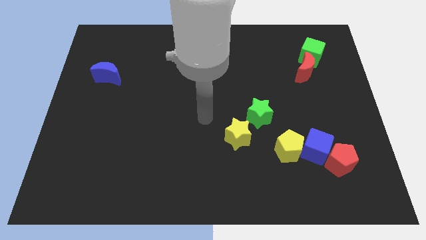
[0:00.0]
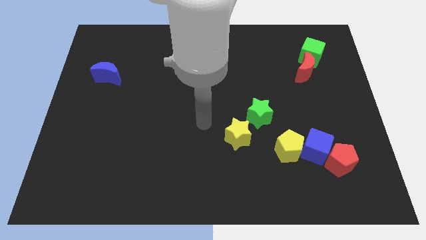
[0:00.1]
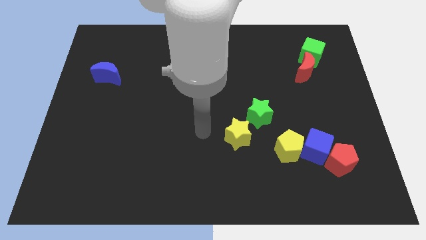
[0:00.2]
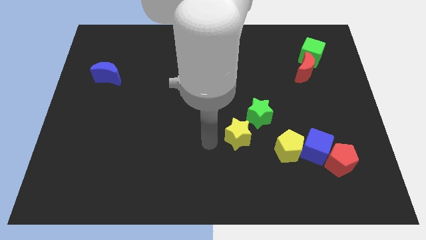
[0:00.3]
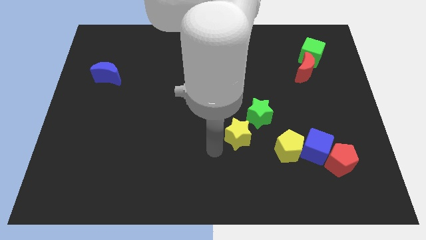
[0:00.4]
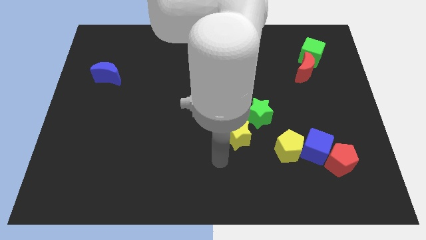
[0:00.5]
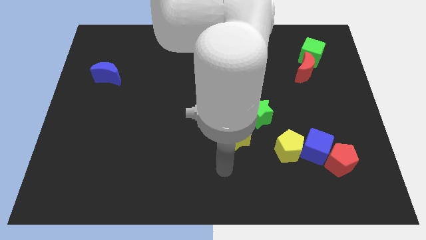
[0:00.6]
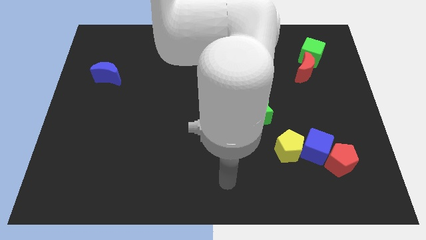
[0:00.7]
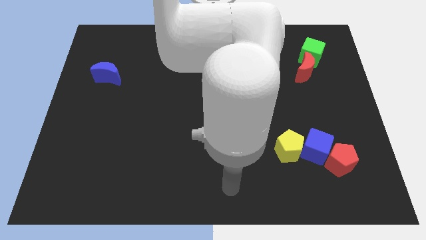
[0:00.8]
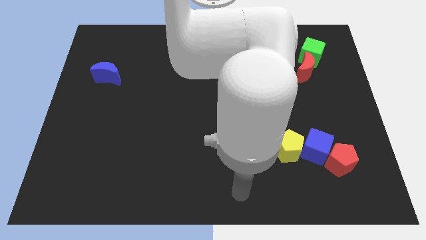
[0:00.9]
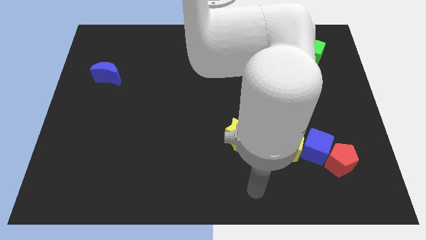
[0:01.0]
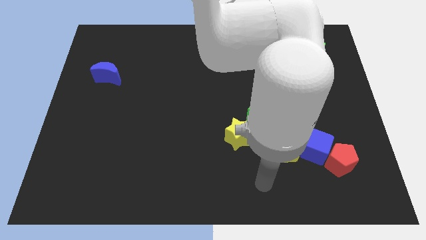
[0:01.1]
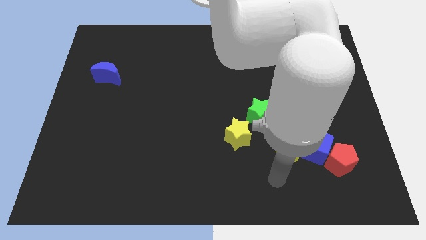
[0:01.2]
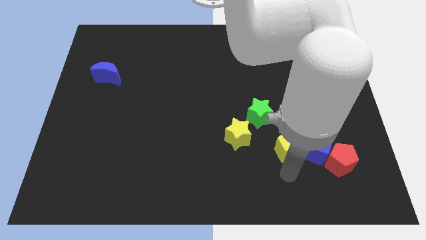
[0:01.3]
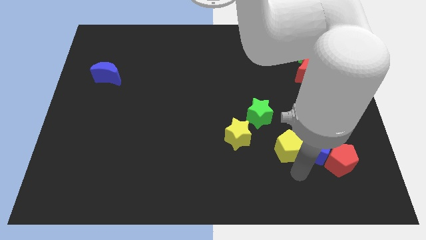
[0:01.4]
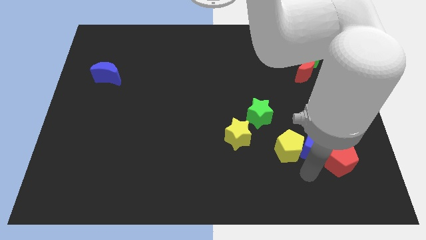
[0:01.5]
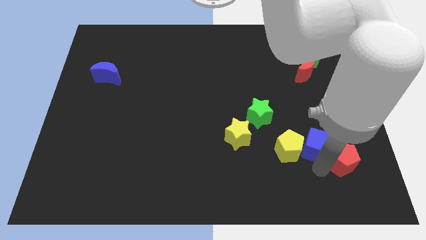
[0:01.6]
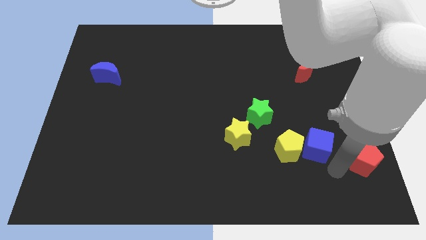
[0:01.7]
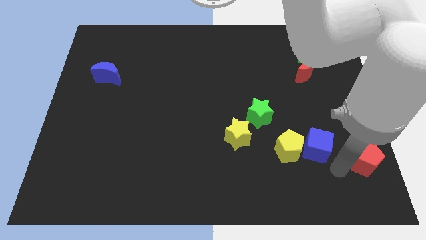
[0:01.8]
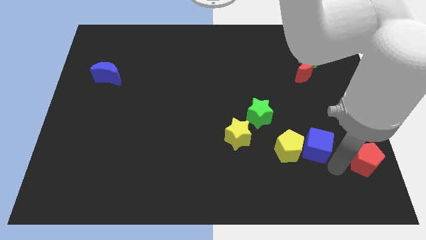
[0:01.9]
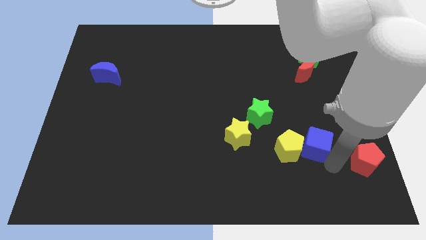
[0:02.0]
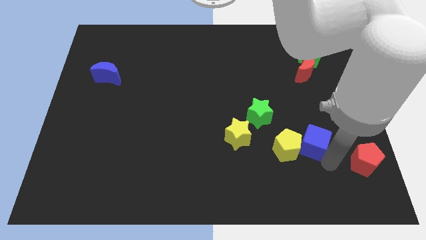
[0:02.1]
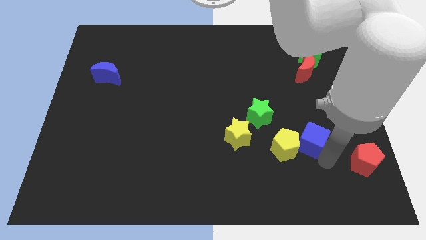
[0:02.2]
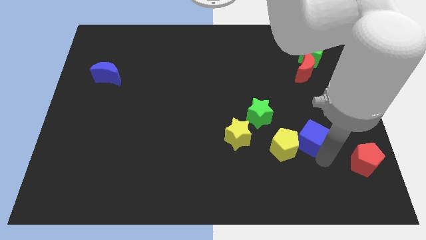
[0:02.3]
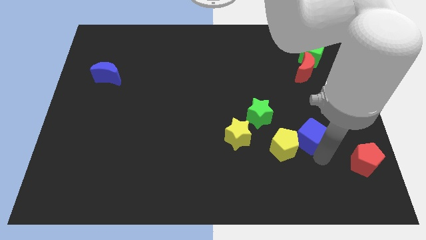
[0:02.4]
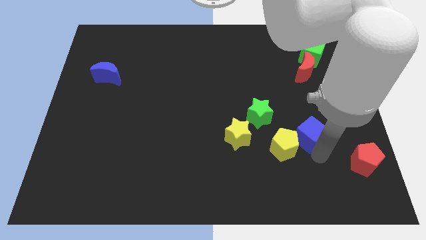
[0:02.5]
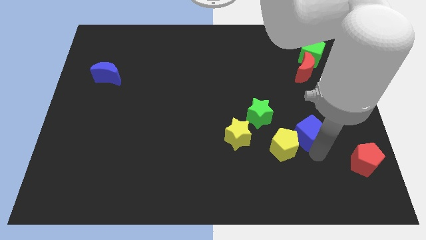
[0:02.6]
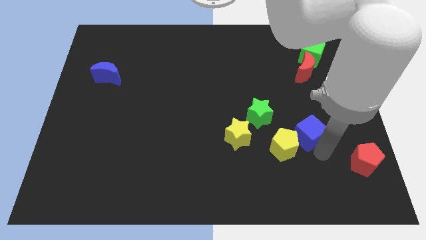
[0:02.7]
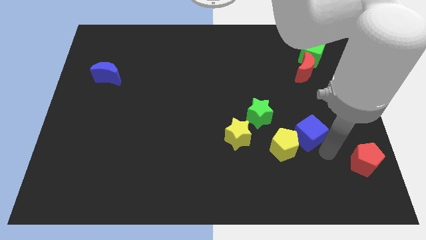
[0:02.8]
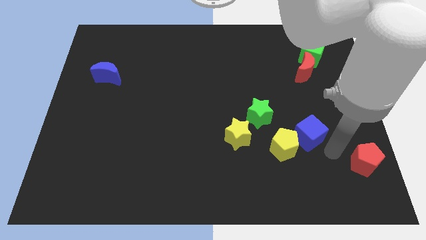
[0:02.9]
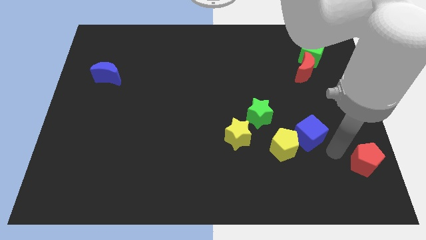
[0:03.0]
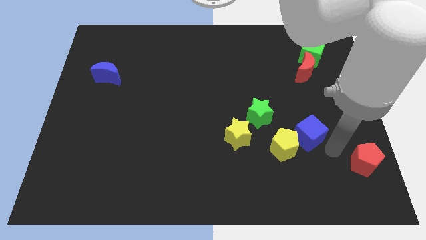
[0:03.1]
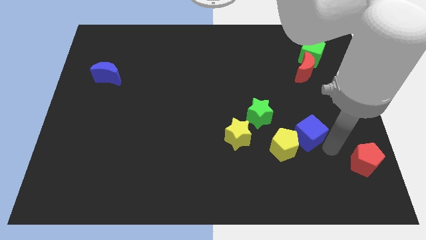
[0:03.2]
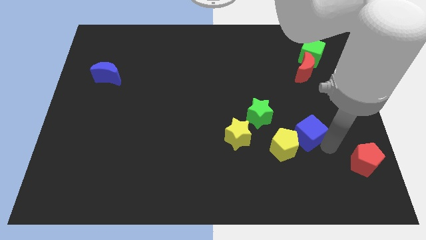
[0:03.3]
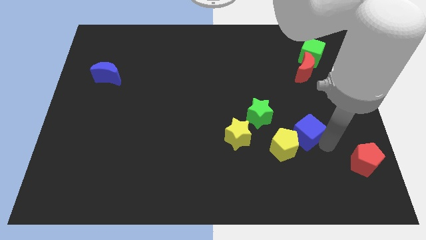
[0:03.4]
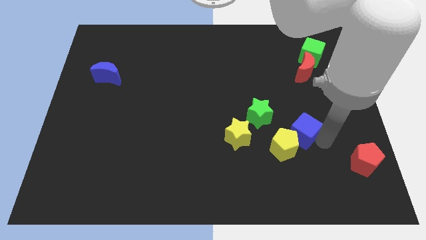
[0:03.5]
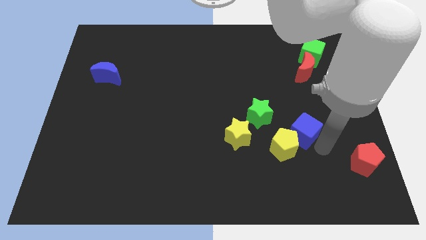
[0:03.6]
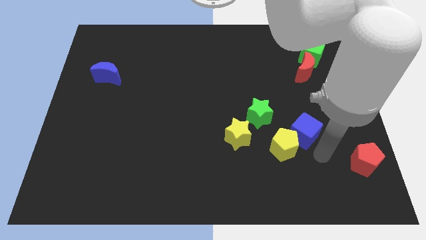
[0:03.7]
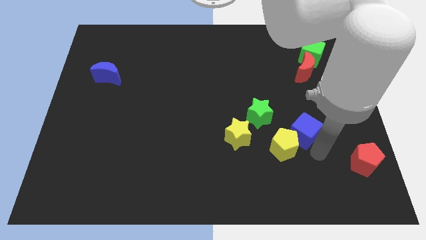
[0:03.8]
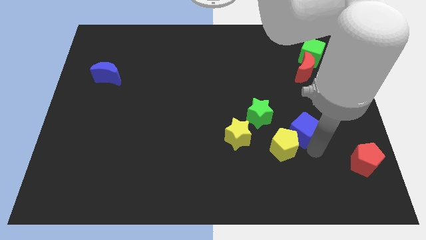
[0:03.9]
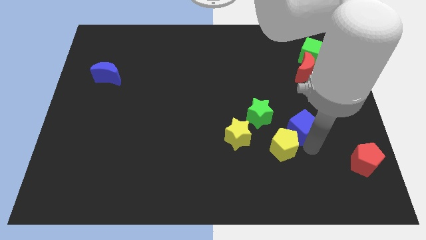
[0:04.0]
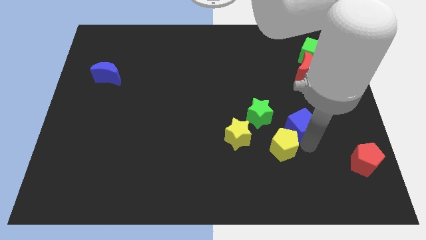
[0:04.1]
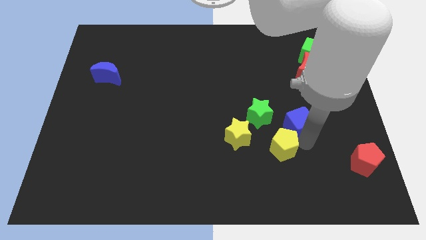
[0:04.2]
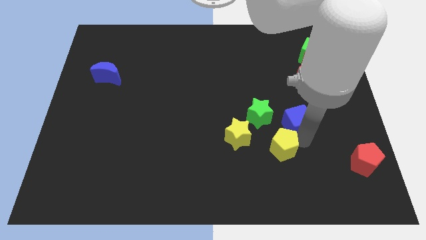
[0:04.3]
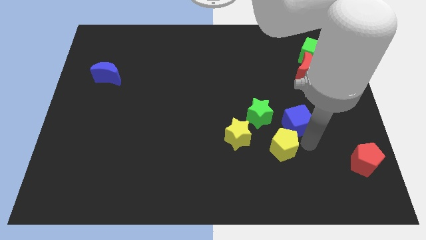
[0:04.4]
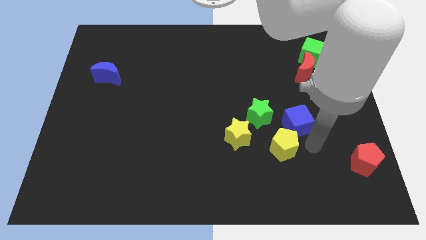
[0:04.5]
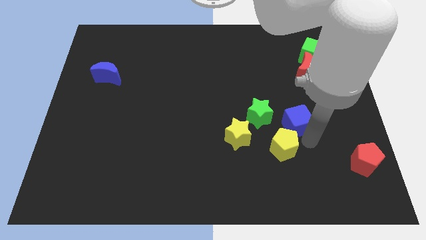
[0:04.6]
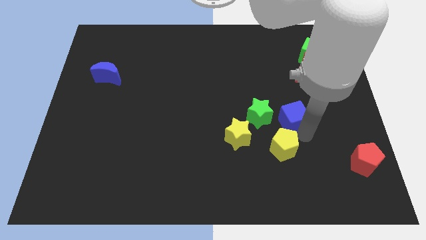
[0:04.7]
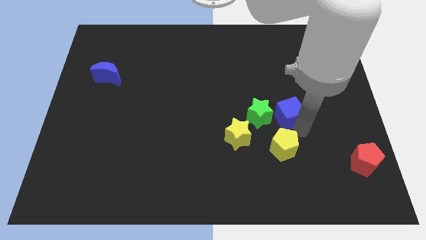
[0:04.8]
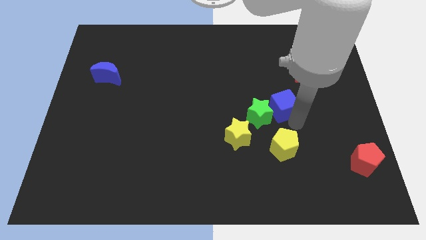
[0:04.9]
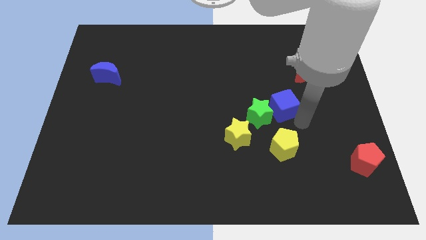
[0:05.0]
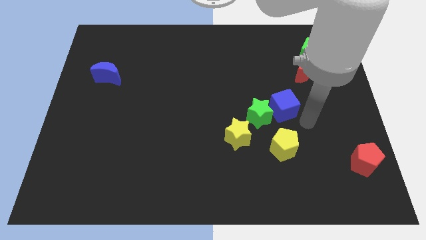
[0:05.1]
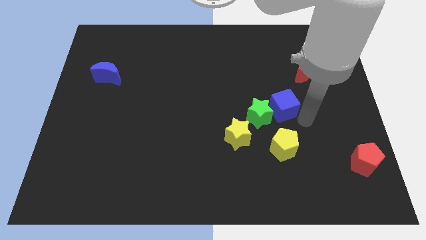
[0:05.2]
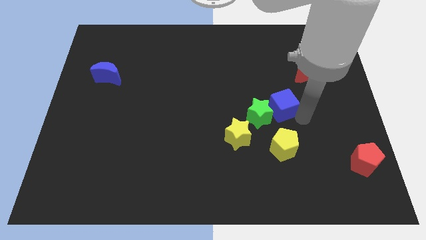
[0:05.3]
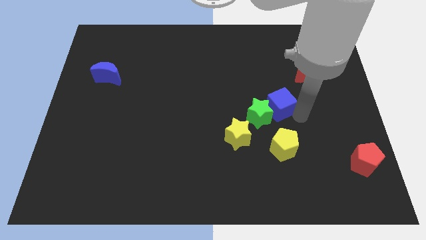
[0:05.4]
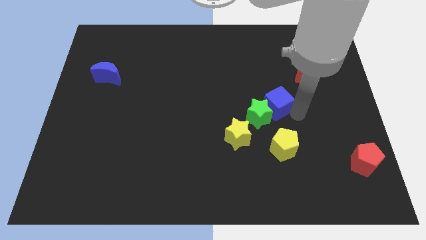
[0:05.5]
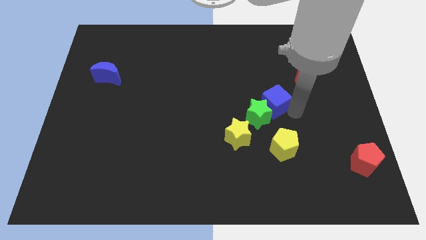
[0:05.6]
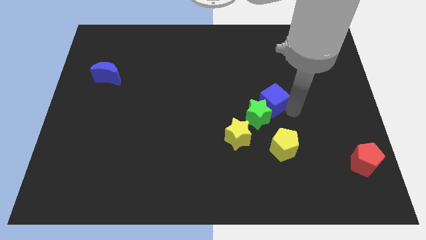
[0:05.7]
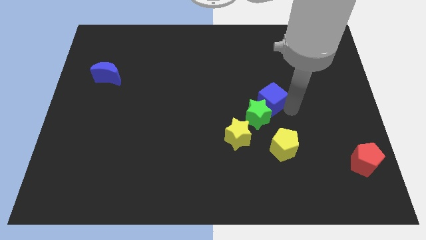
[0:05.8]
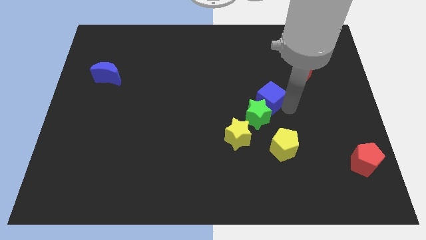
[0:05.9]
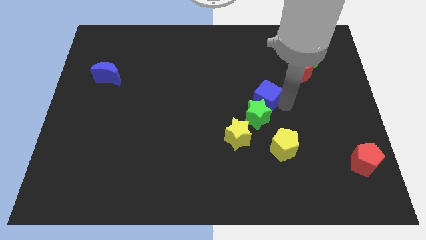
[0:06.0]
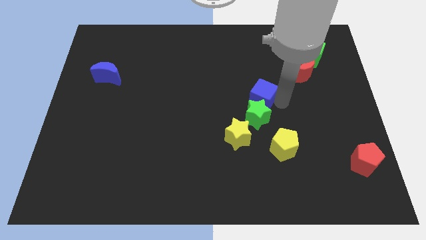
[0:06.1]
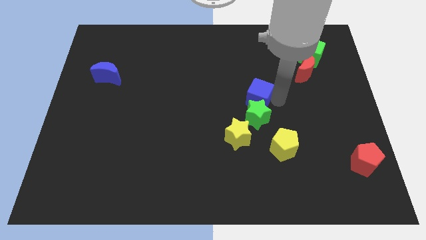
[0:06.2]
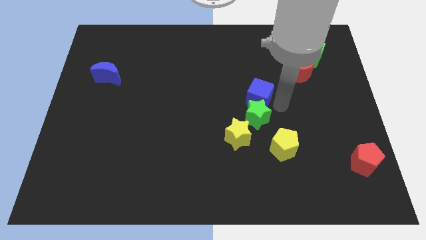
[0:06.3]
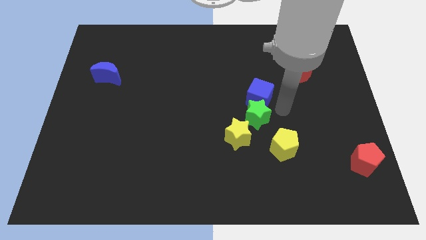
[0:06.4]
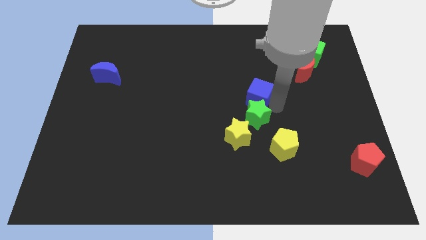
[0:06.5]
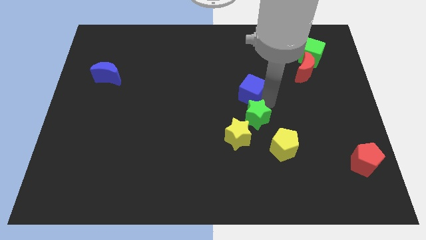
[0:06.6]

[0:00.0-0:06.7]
slide the blue cube up and then to the left

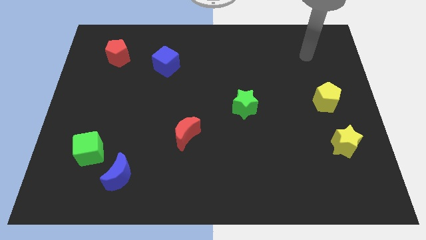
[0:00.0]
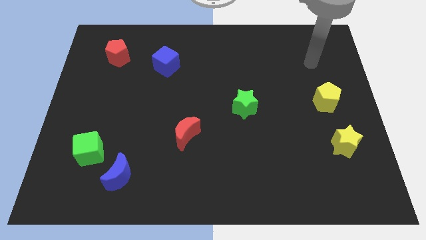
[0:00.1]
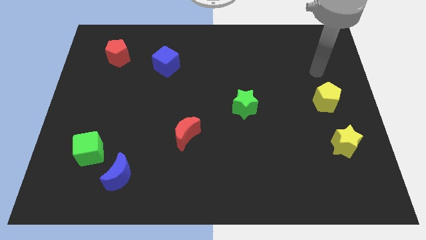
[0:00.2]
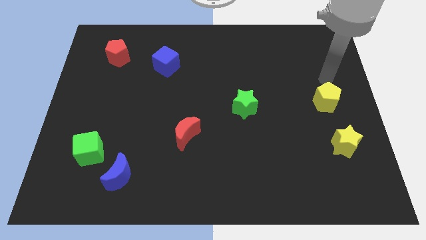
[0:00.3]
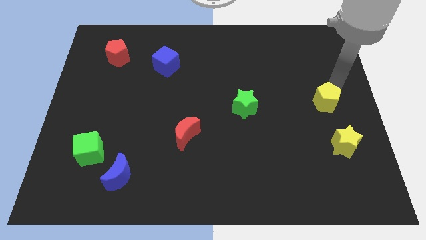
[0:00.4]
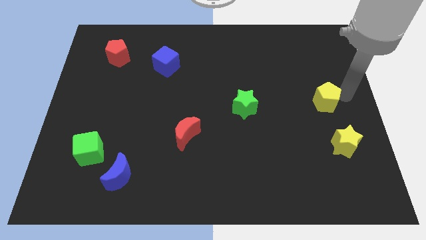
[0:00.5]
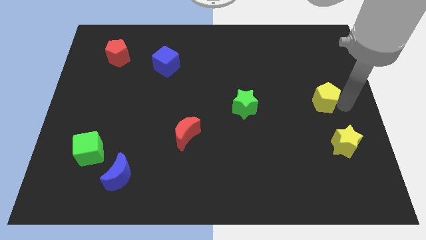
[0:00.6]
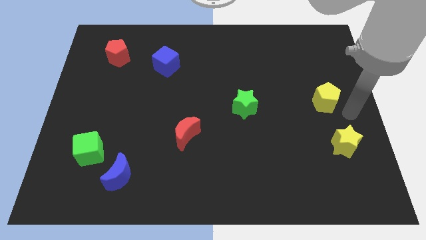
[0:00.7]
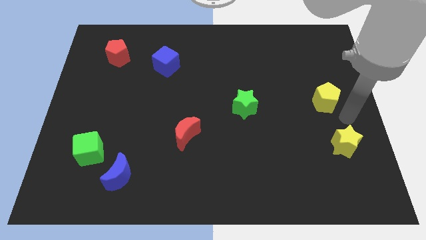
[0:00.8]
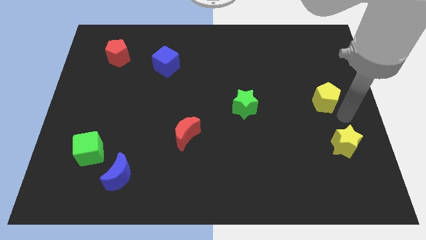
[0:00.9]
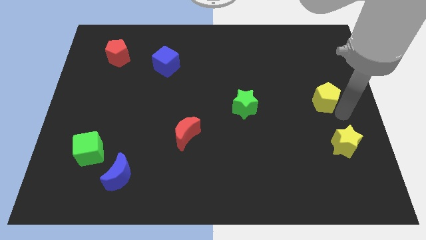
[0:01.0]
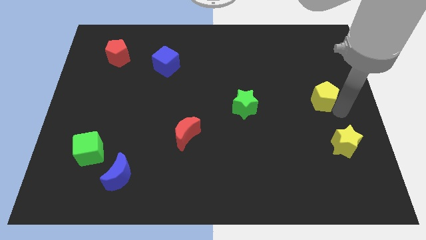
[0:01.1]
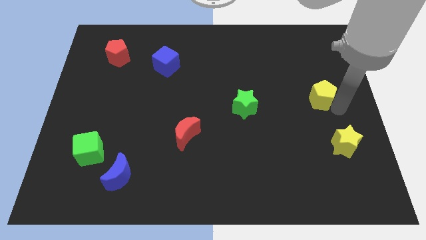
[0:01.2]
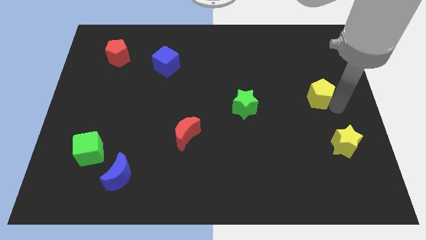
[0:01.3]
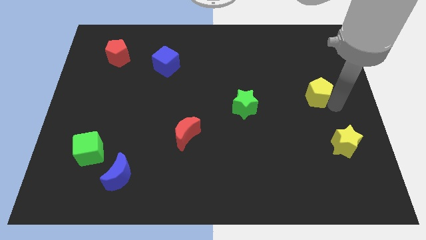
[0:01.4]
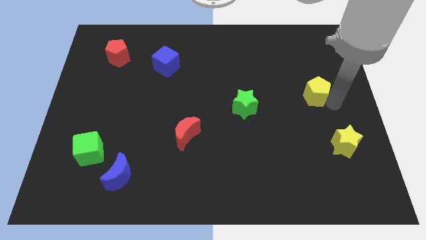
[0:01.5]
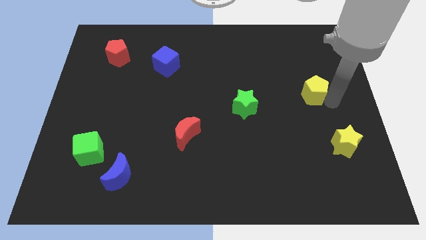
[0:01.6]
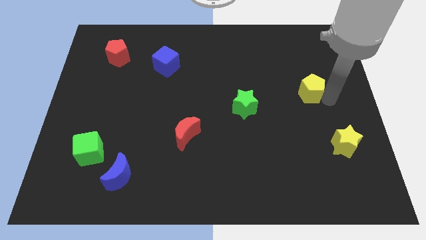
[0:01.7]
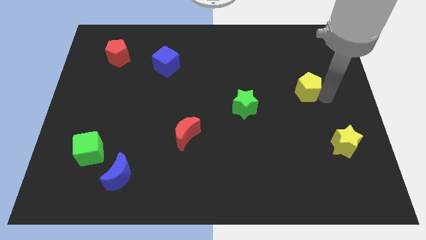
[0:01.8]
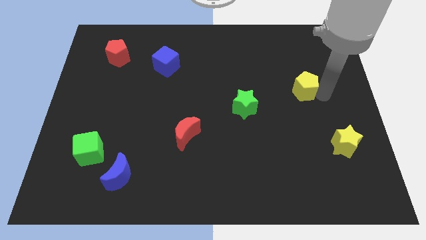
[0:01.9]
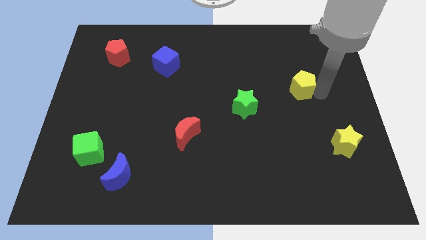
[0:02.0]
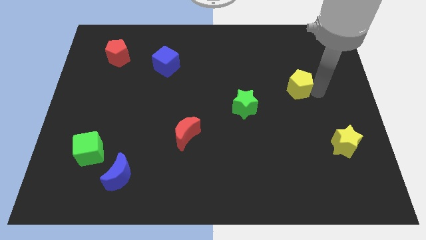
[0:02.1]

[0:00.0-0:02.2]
push the yellow pentagon upwards and then left a bit
